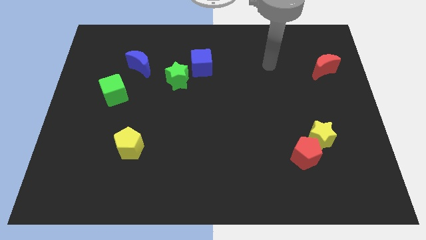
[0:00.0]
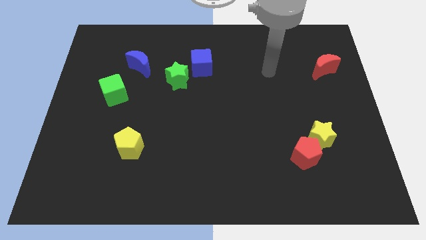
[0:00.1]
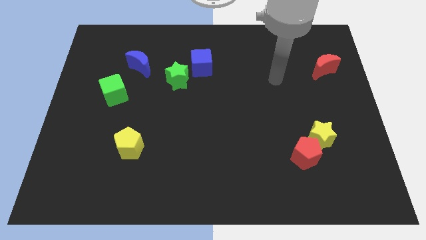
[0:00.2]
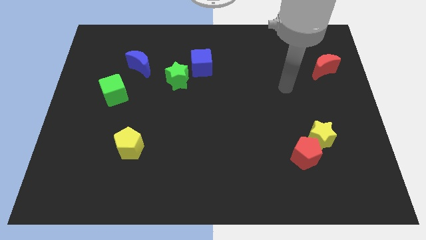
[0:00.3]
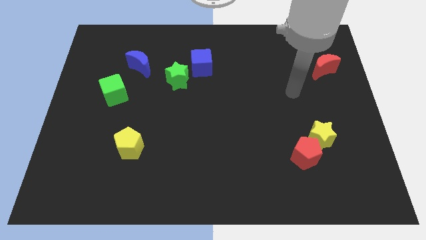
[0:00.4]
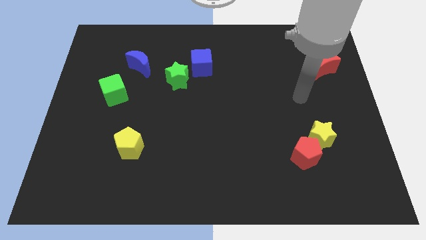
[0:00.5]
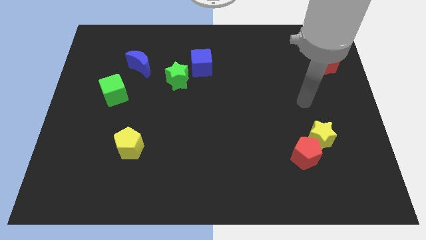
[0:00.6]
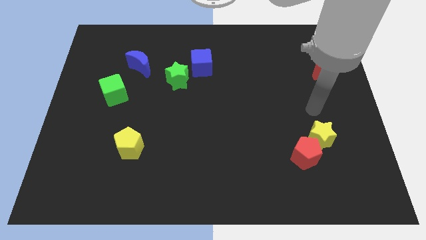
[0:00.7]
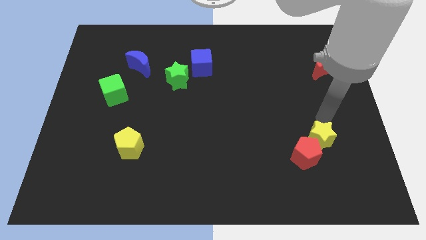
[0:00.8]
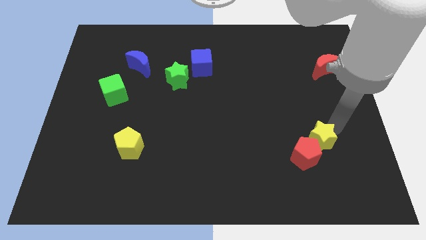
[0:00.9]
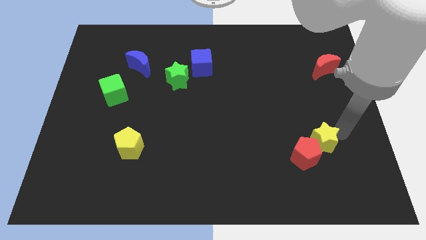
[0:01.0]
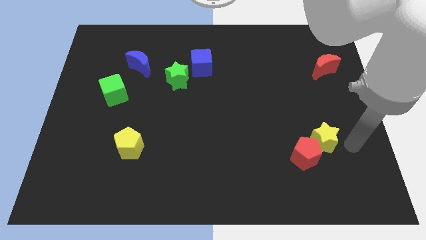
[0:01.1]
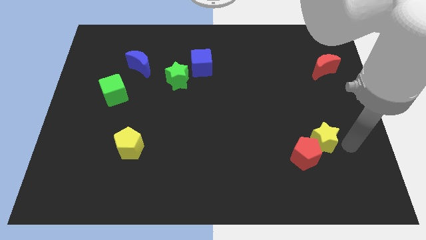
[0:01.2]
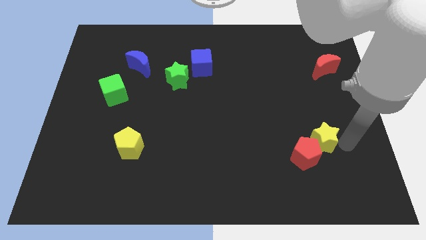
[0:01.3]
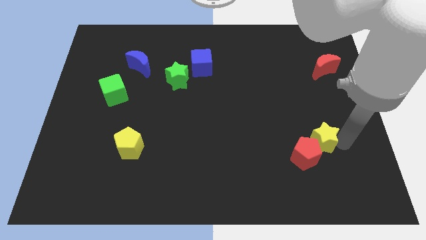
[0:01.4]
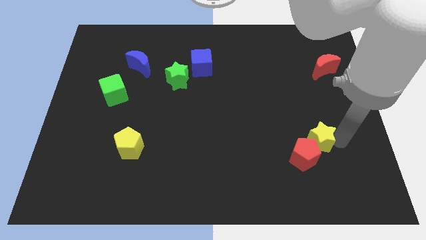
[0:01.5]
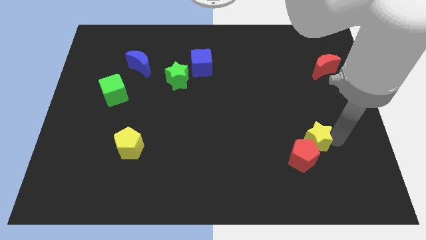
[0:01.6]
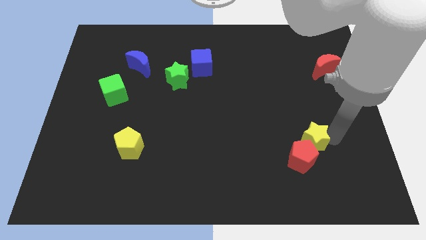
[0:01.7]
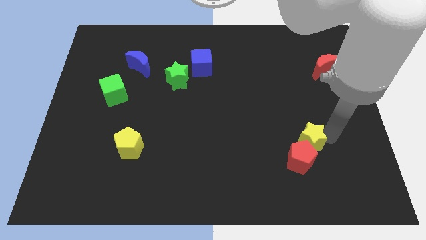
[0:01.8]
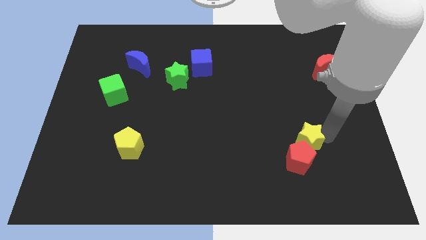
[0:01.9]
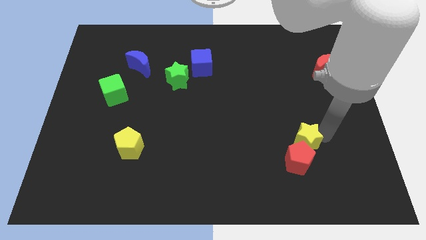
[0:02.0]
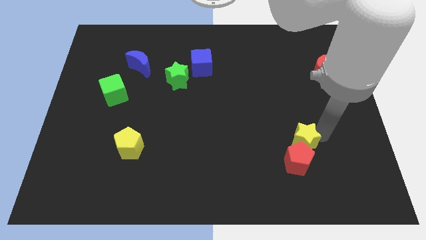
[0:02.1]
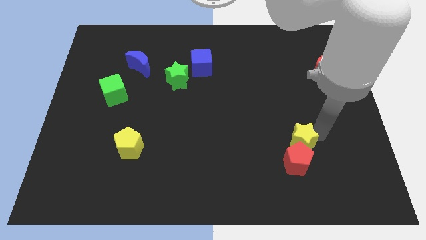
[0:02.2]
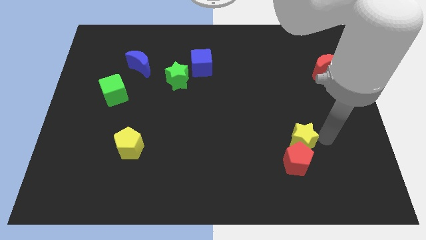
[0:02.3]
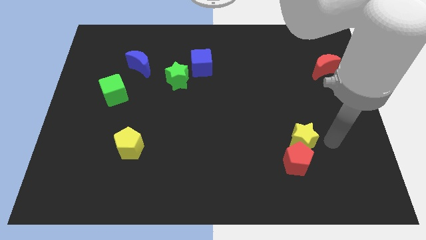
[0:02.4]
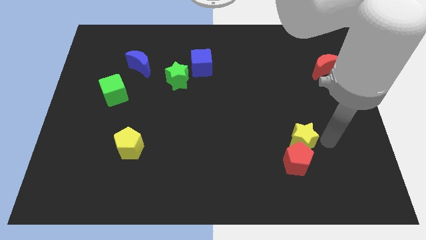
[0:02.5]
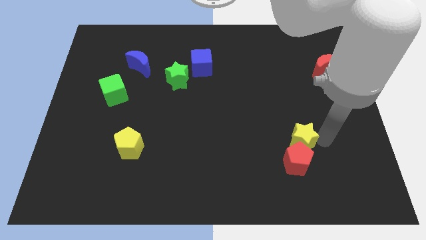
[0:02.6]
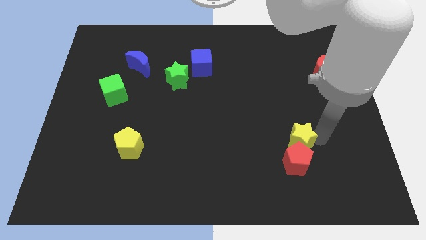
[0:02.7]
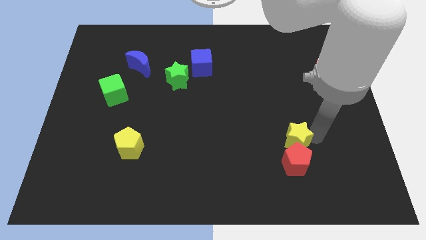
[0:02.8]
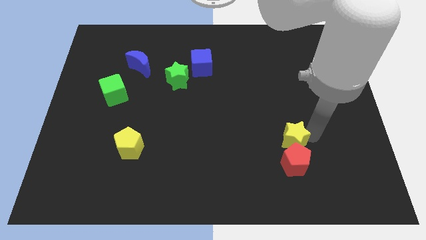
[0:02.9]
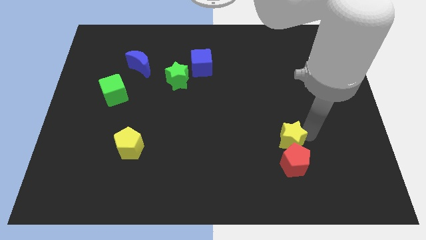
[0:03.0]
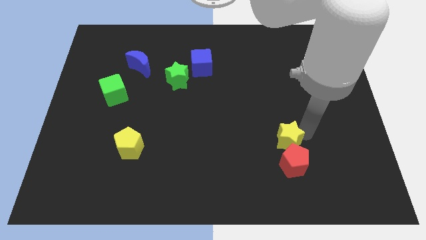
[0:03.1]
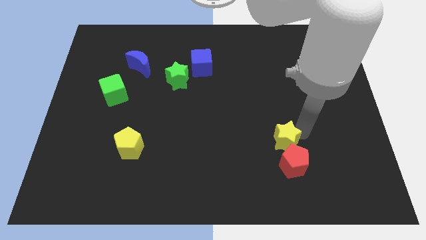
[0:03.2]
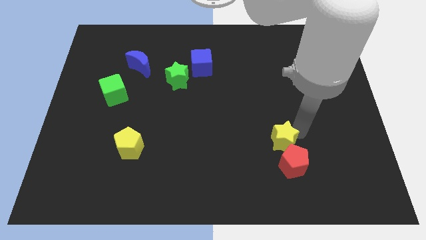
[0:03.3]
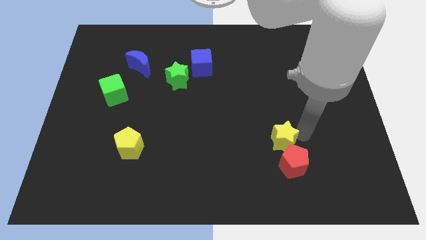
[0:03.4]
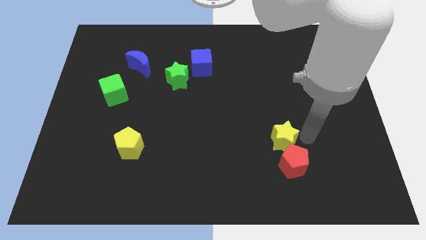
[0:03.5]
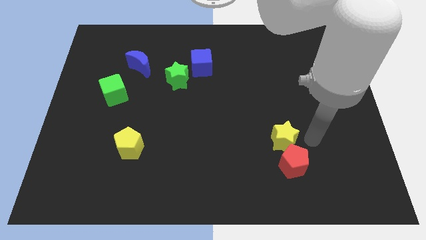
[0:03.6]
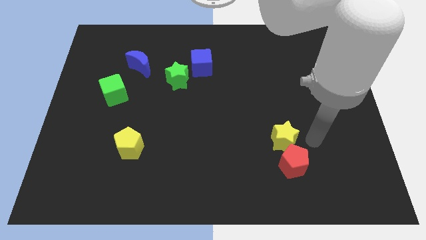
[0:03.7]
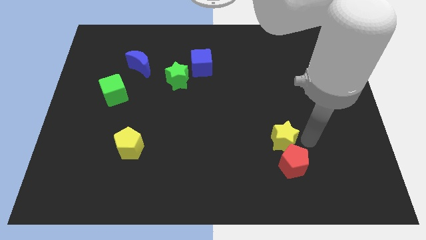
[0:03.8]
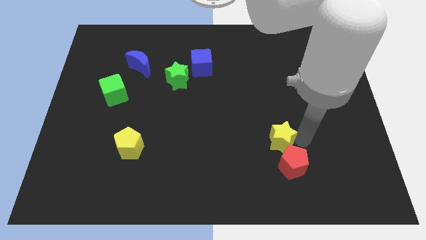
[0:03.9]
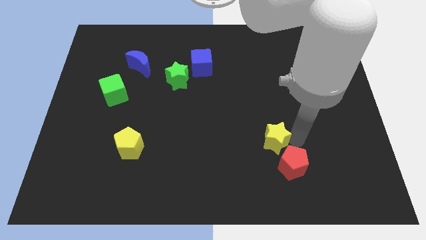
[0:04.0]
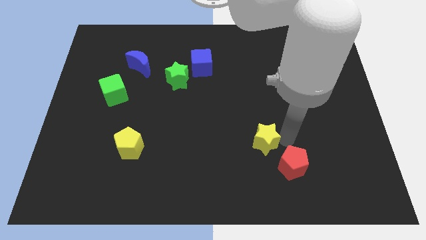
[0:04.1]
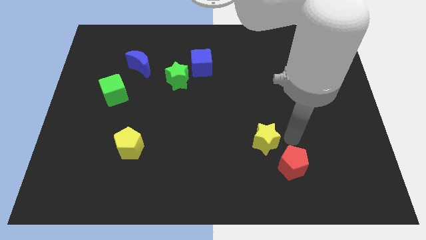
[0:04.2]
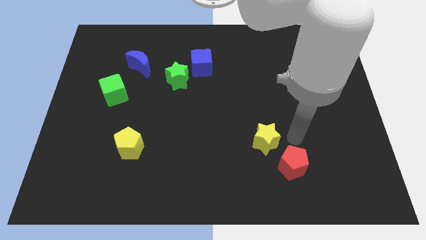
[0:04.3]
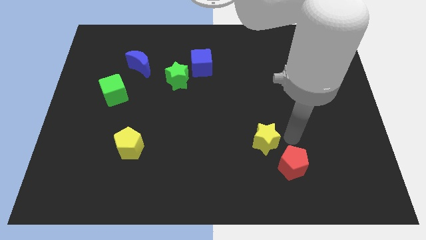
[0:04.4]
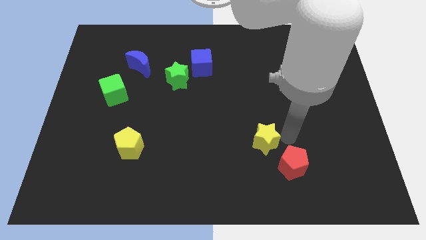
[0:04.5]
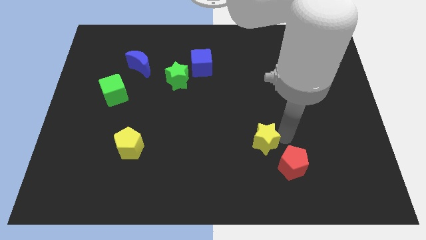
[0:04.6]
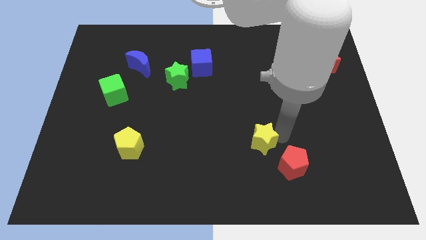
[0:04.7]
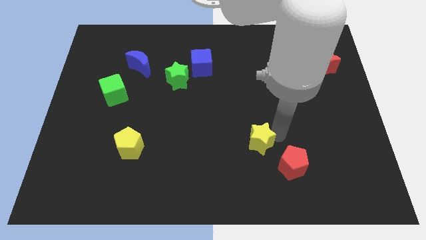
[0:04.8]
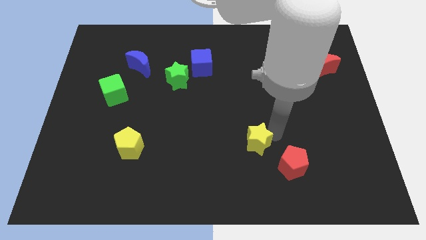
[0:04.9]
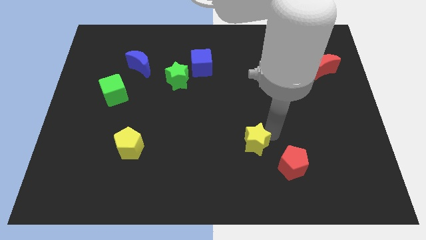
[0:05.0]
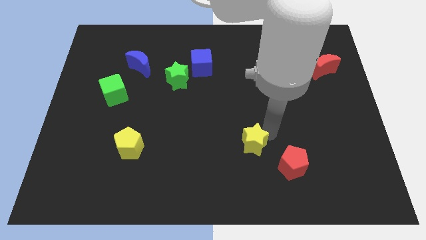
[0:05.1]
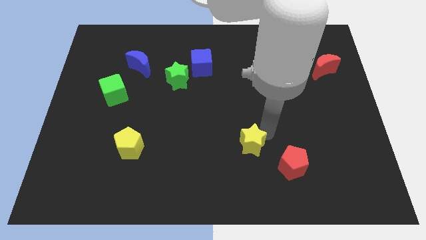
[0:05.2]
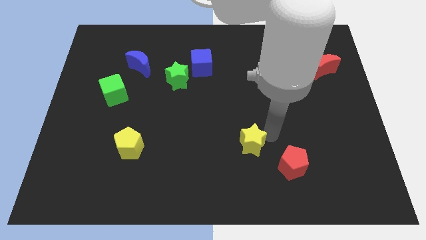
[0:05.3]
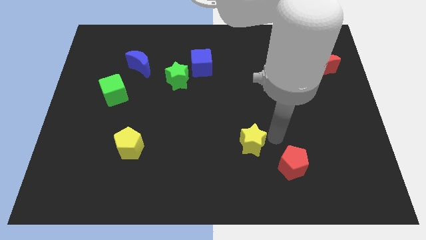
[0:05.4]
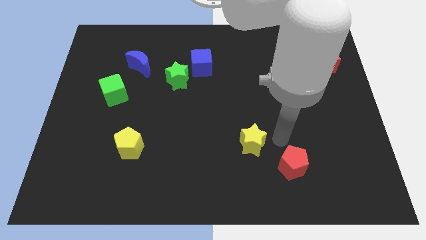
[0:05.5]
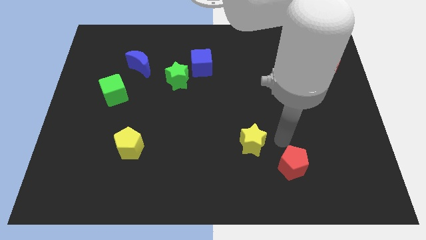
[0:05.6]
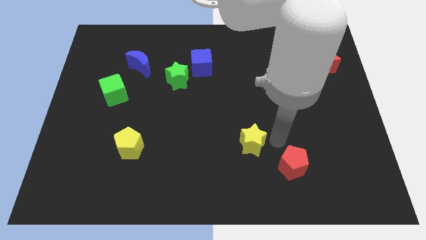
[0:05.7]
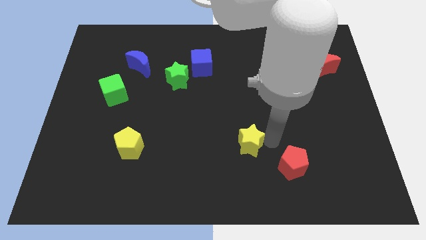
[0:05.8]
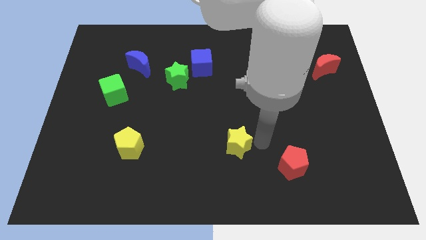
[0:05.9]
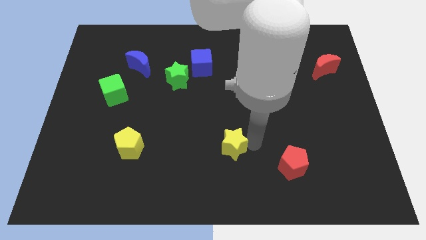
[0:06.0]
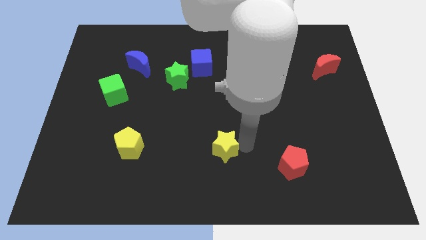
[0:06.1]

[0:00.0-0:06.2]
move the yellow star to the left

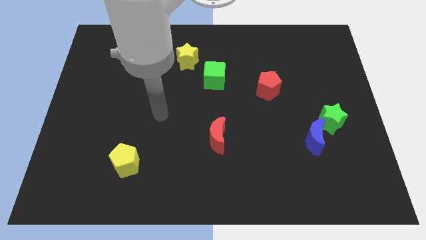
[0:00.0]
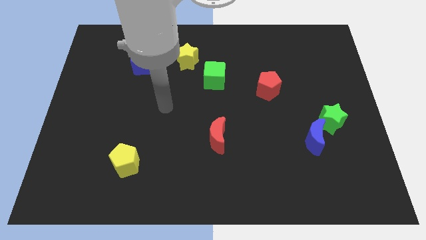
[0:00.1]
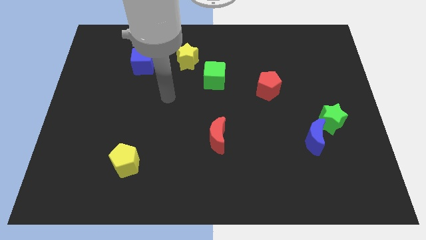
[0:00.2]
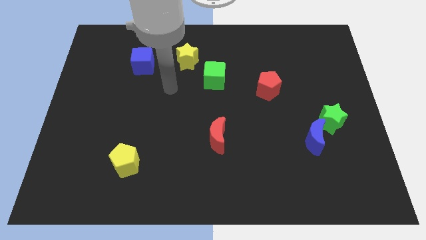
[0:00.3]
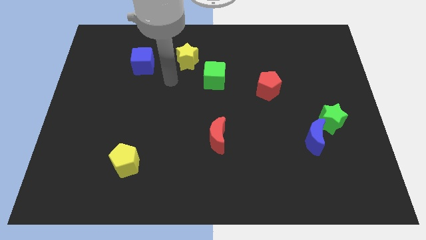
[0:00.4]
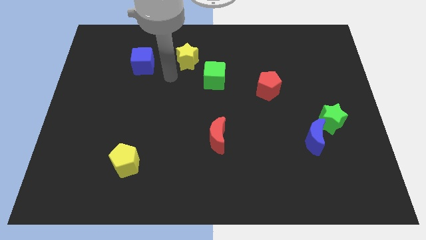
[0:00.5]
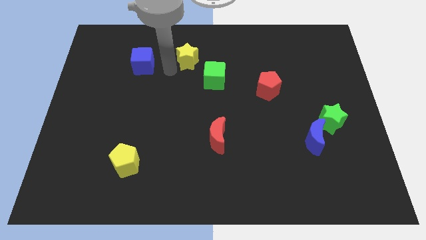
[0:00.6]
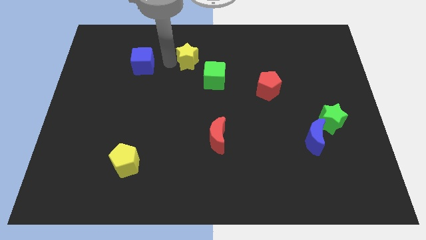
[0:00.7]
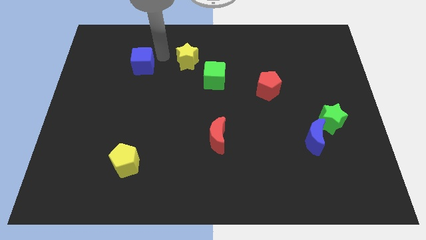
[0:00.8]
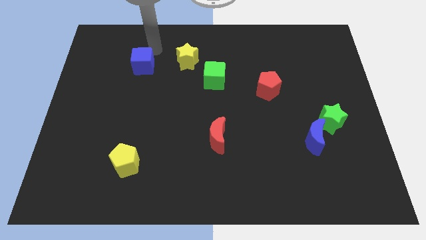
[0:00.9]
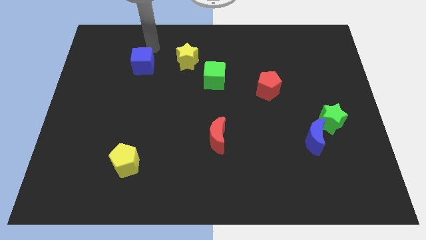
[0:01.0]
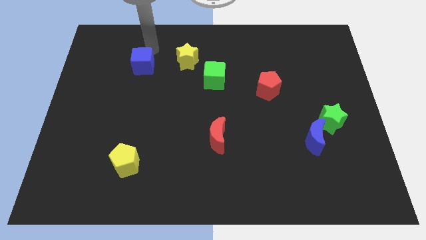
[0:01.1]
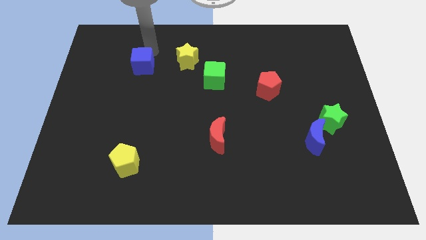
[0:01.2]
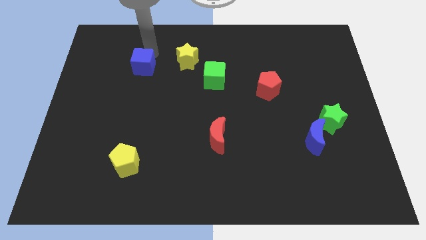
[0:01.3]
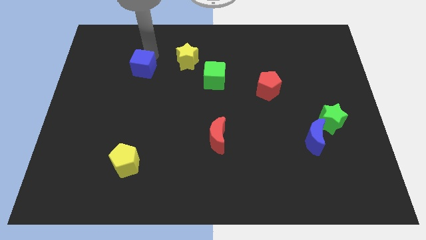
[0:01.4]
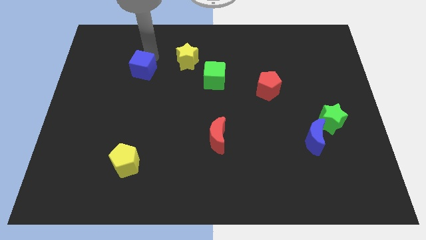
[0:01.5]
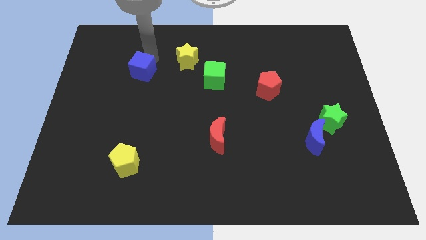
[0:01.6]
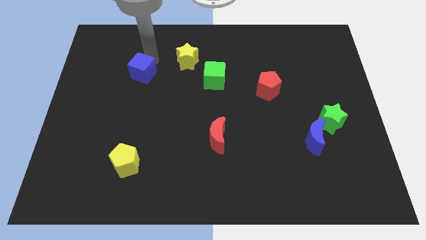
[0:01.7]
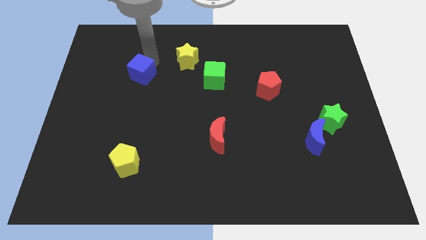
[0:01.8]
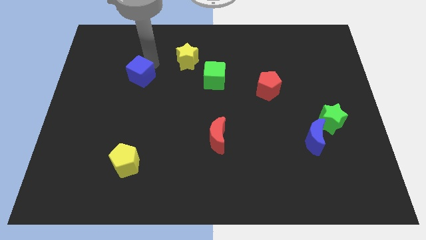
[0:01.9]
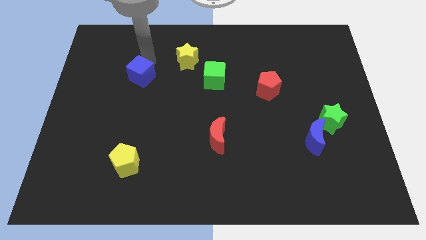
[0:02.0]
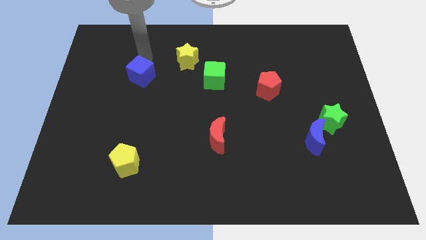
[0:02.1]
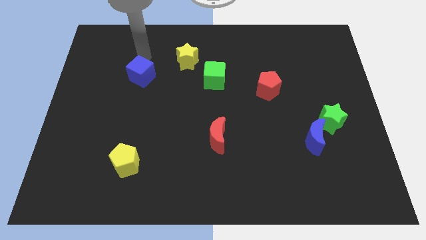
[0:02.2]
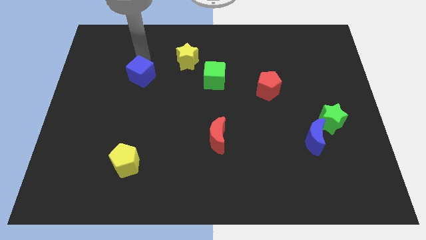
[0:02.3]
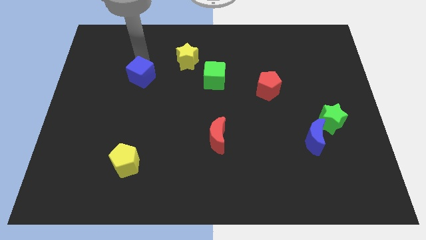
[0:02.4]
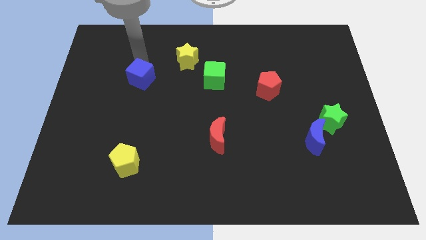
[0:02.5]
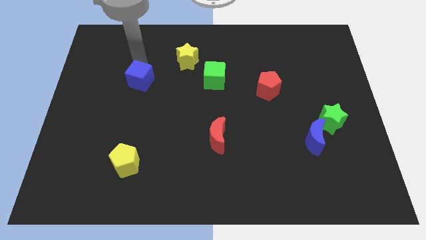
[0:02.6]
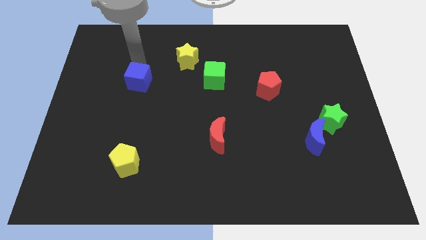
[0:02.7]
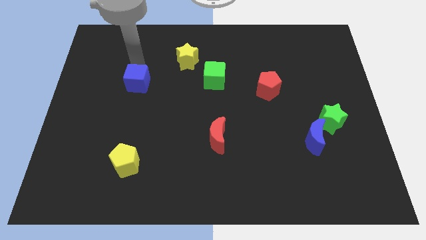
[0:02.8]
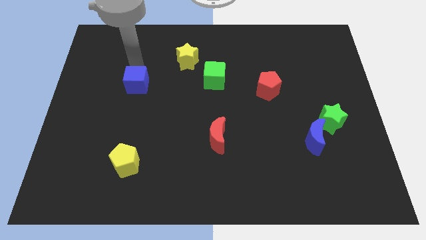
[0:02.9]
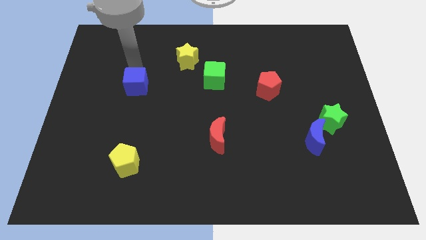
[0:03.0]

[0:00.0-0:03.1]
move the blue cube somewhat down
